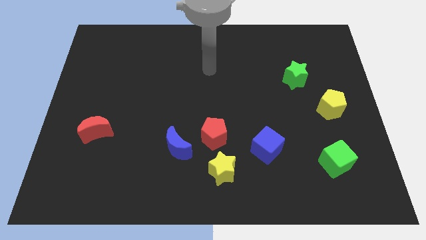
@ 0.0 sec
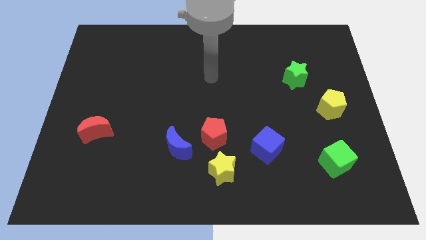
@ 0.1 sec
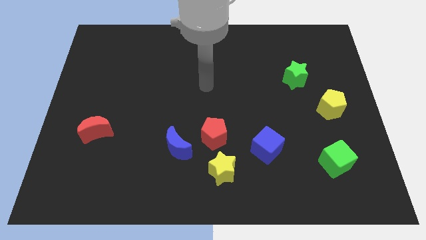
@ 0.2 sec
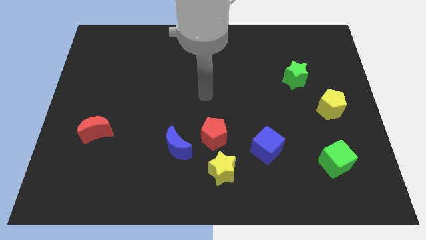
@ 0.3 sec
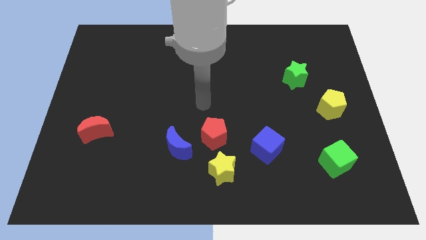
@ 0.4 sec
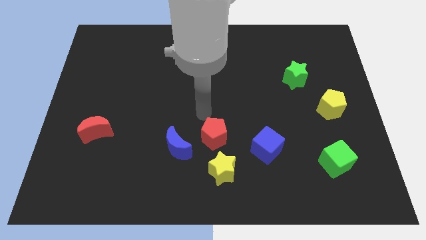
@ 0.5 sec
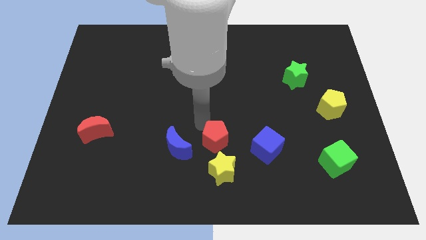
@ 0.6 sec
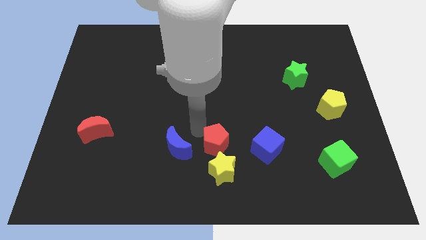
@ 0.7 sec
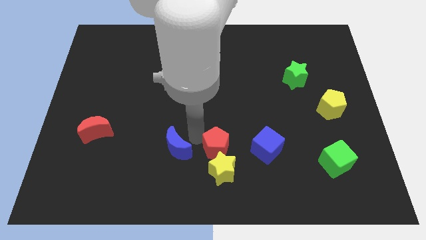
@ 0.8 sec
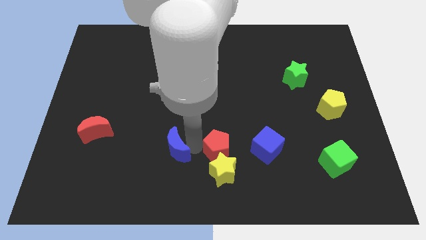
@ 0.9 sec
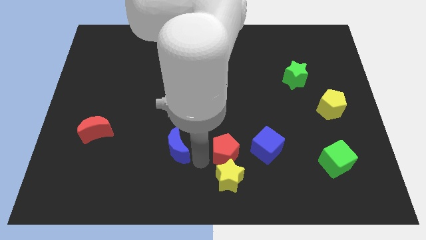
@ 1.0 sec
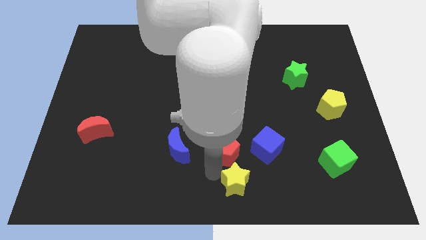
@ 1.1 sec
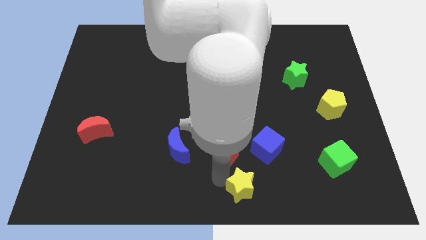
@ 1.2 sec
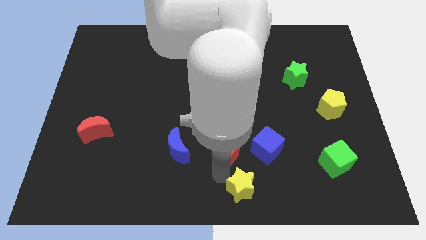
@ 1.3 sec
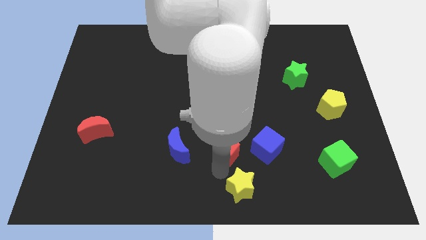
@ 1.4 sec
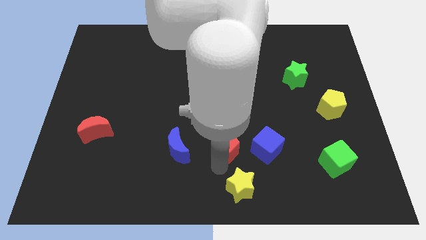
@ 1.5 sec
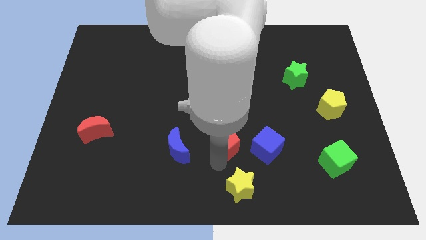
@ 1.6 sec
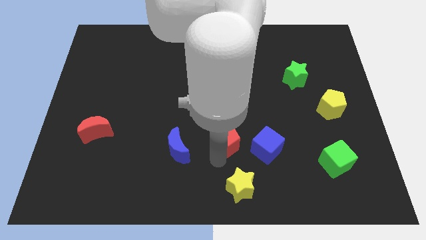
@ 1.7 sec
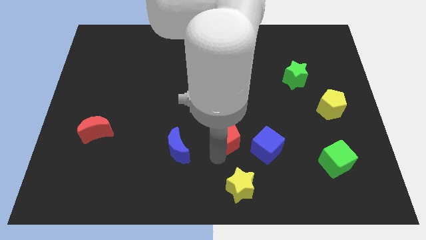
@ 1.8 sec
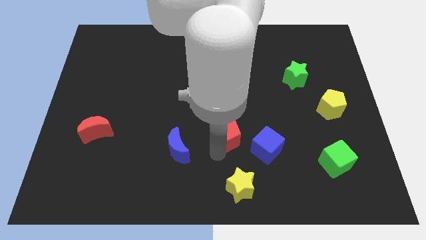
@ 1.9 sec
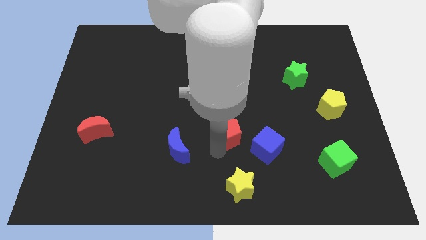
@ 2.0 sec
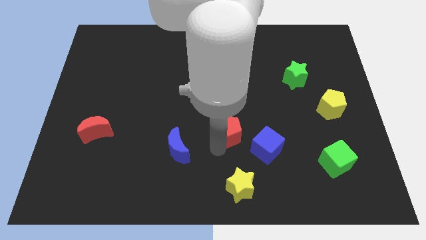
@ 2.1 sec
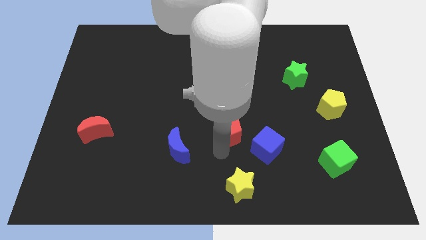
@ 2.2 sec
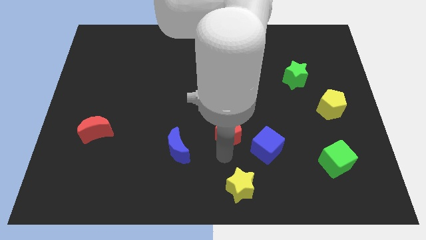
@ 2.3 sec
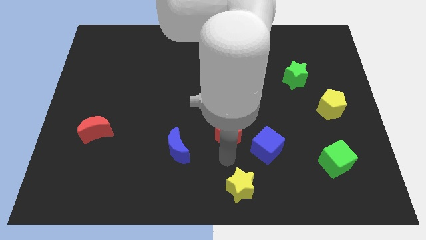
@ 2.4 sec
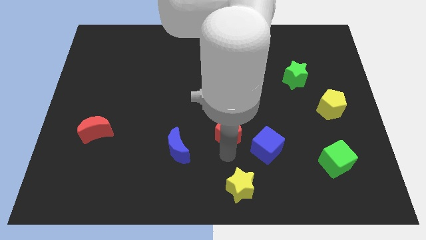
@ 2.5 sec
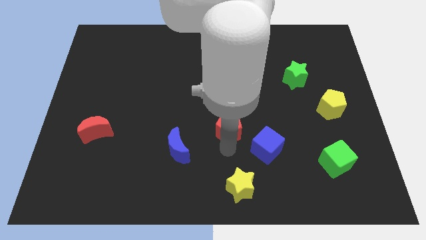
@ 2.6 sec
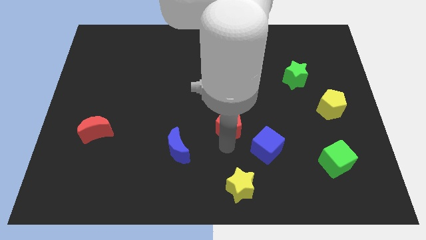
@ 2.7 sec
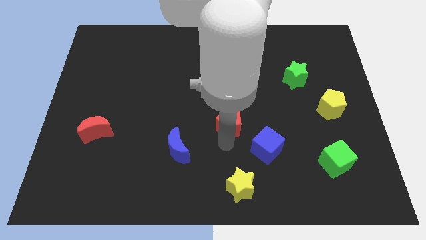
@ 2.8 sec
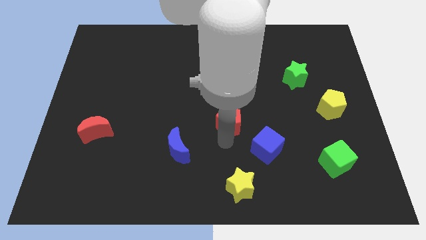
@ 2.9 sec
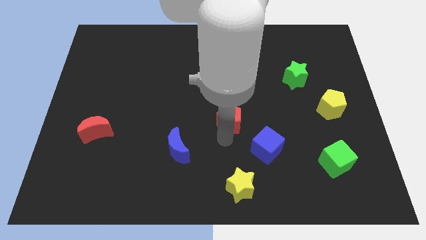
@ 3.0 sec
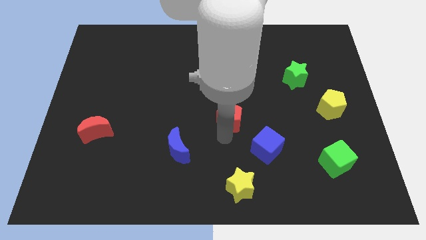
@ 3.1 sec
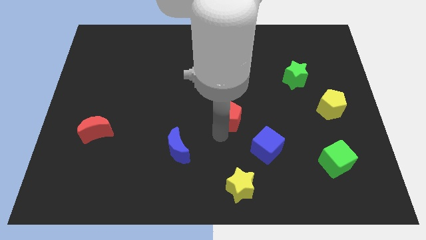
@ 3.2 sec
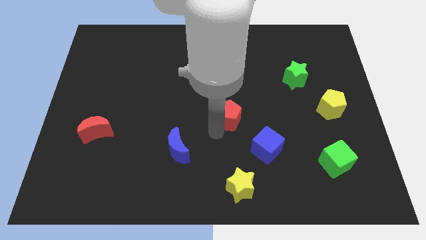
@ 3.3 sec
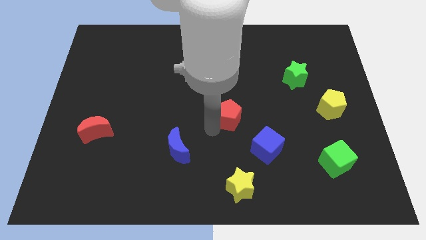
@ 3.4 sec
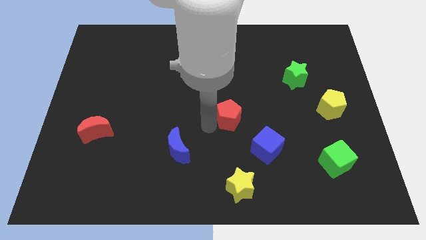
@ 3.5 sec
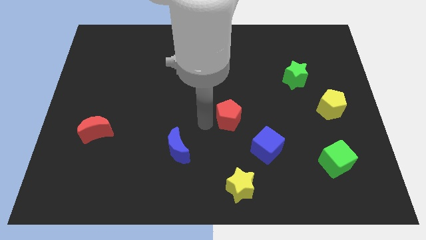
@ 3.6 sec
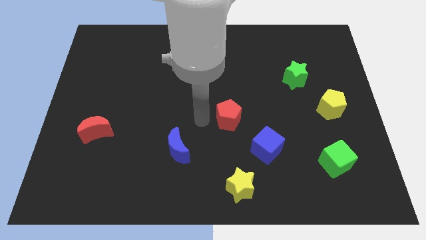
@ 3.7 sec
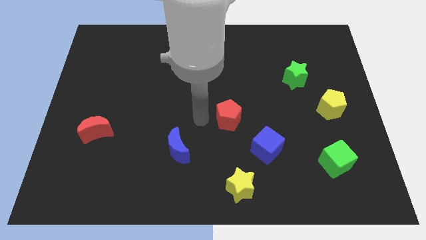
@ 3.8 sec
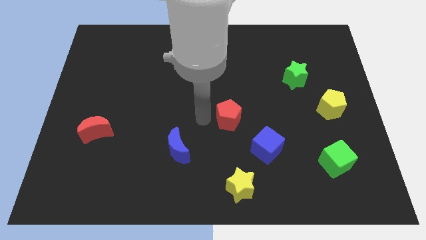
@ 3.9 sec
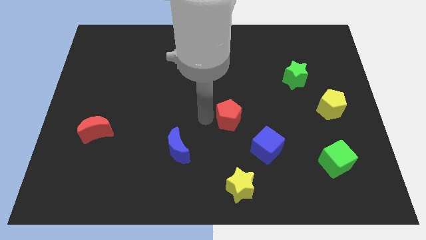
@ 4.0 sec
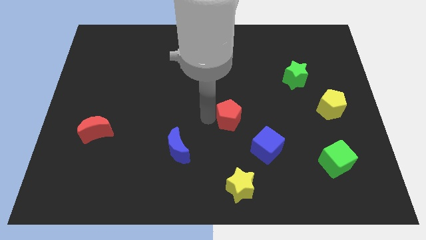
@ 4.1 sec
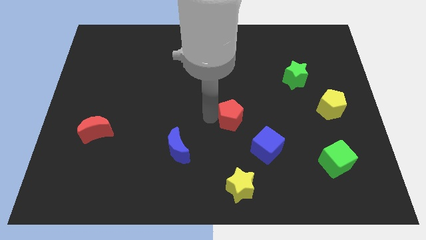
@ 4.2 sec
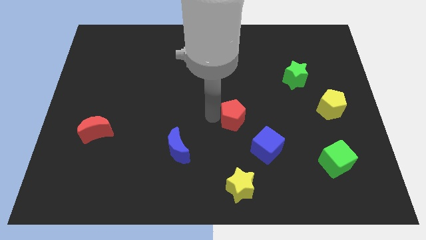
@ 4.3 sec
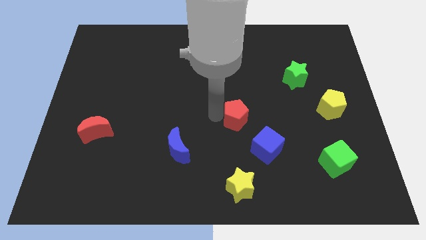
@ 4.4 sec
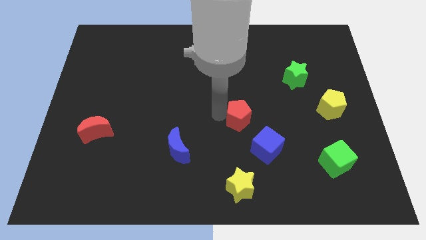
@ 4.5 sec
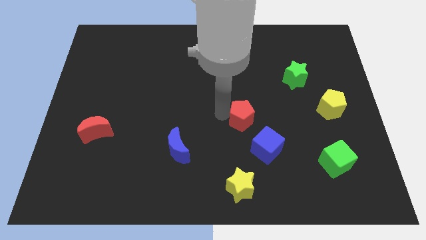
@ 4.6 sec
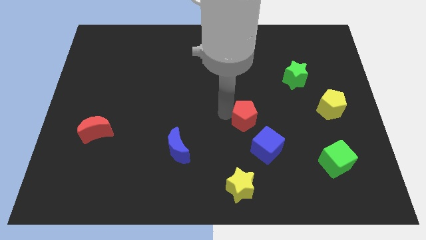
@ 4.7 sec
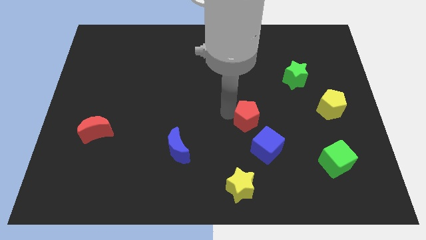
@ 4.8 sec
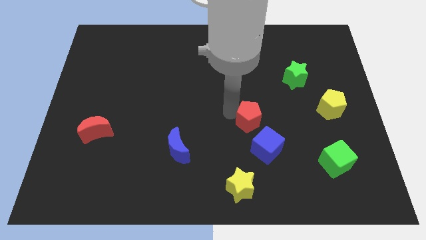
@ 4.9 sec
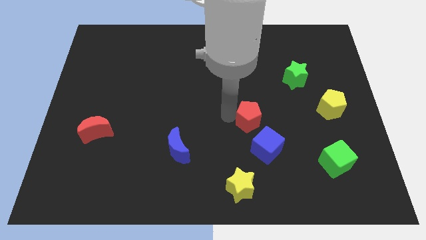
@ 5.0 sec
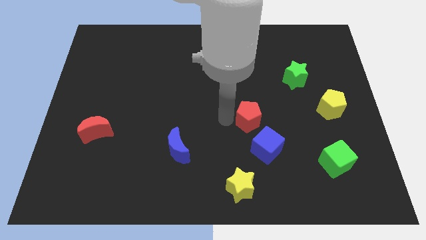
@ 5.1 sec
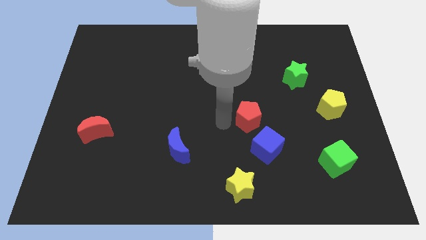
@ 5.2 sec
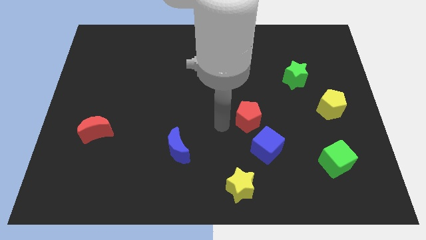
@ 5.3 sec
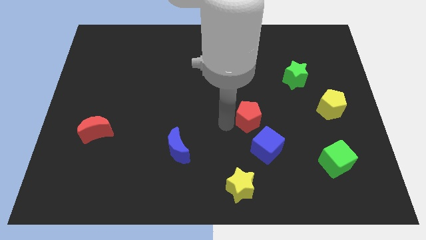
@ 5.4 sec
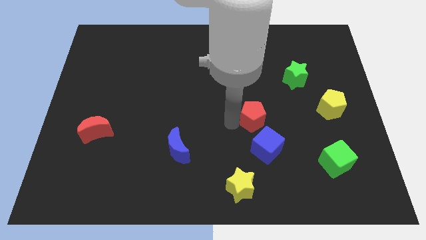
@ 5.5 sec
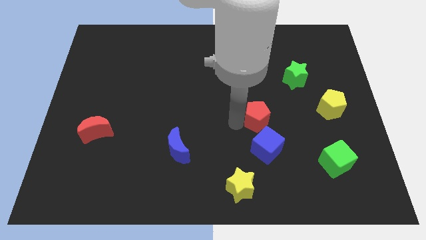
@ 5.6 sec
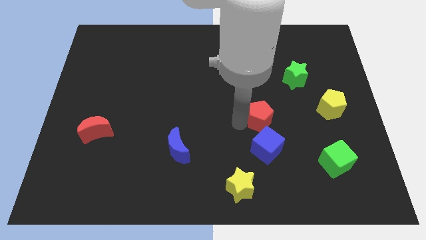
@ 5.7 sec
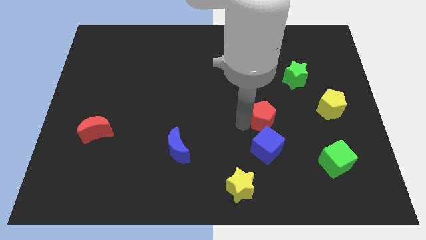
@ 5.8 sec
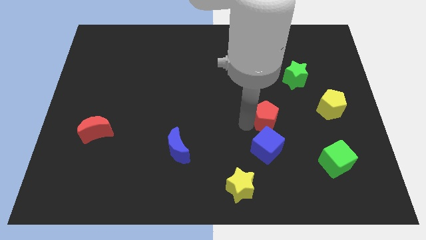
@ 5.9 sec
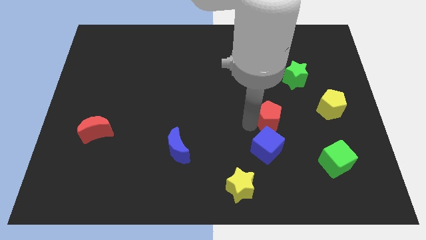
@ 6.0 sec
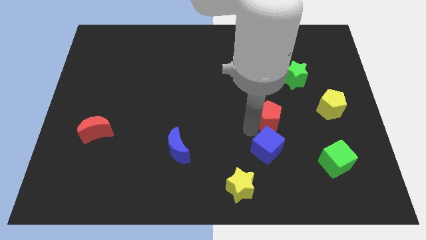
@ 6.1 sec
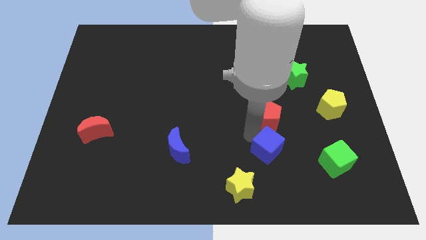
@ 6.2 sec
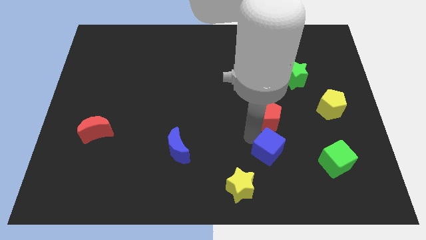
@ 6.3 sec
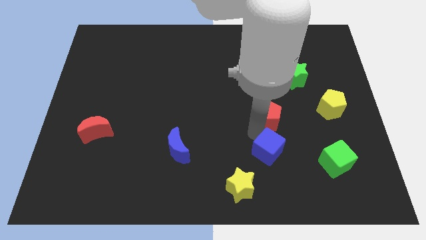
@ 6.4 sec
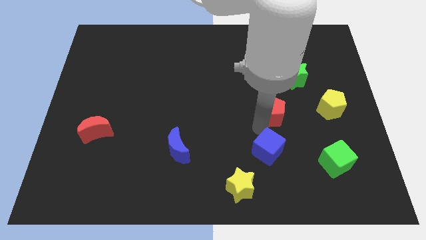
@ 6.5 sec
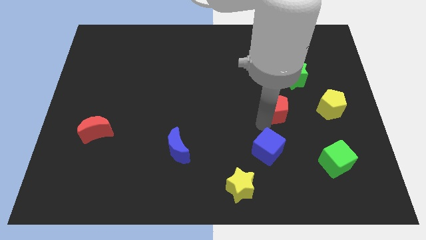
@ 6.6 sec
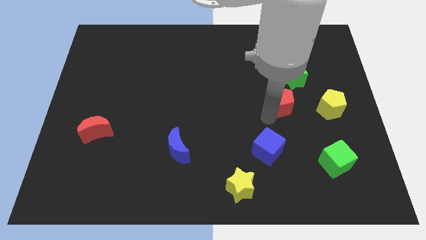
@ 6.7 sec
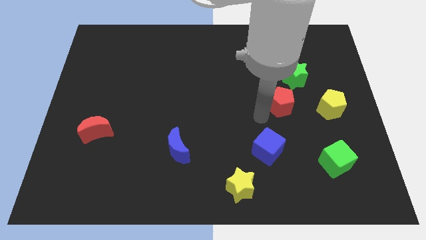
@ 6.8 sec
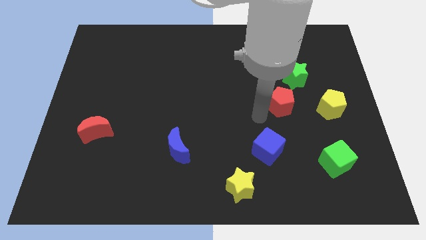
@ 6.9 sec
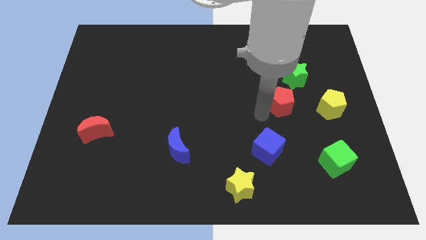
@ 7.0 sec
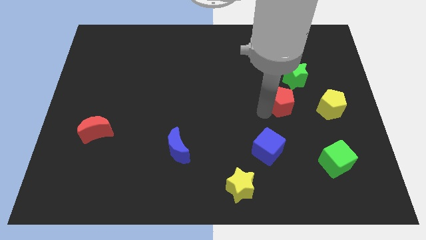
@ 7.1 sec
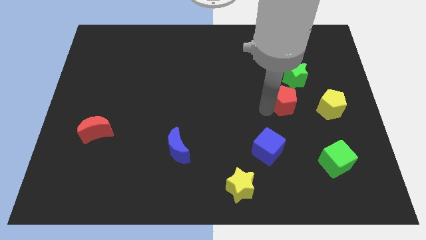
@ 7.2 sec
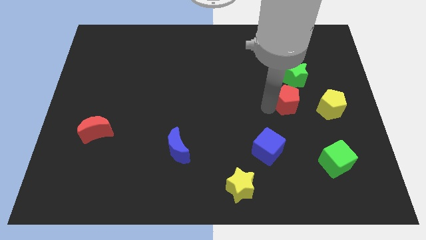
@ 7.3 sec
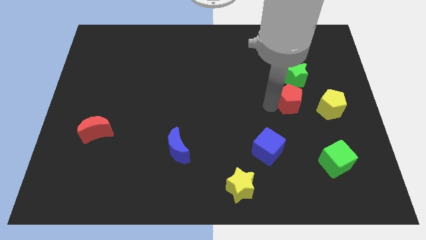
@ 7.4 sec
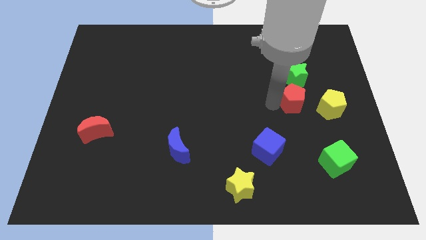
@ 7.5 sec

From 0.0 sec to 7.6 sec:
move the red pentagon to the top left side of the yellow pentagon
